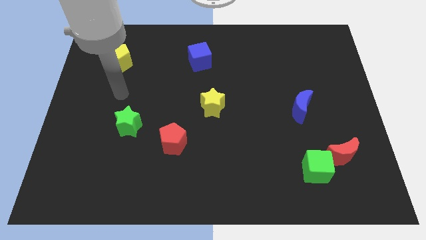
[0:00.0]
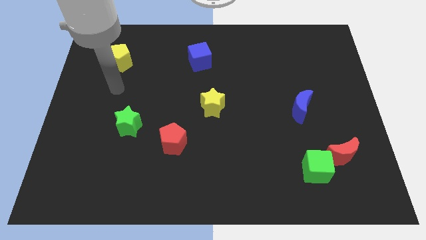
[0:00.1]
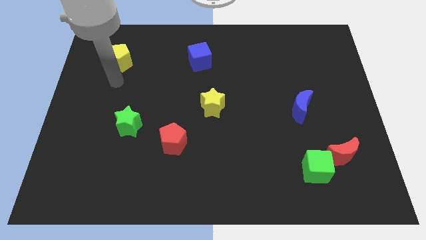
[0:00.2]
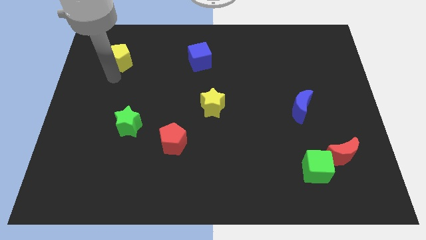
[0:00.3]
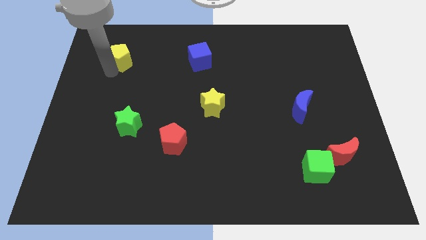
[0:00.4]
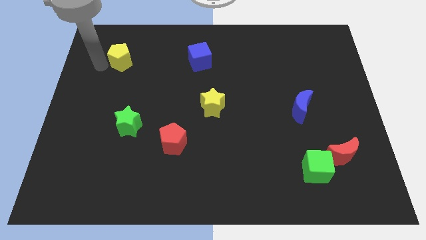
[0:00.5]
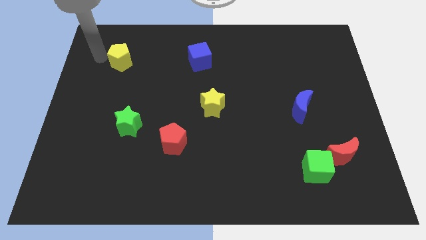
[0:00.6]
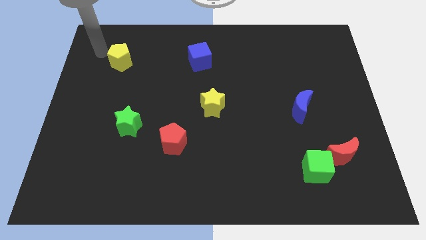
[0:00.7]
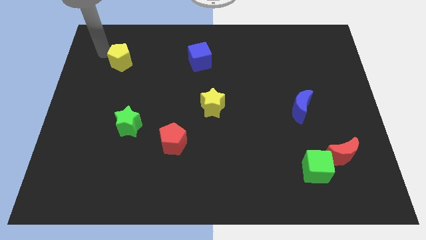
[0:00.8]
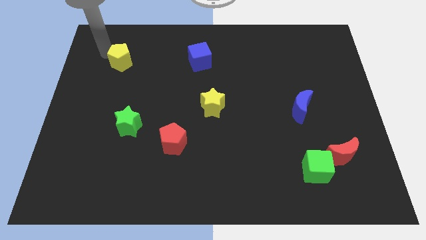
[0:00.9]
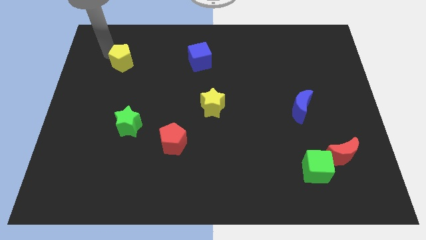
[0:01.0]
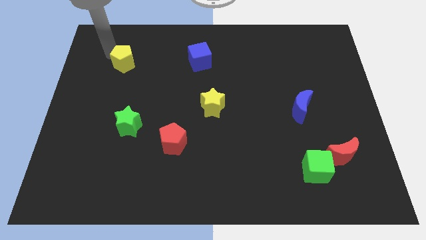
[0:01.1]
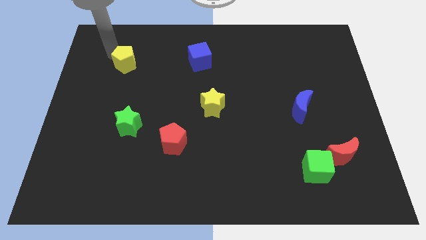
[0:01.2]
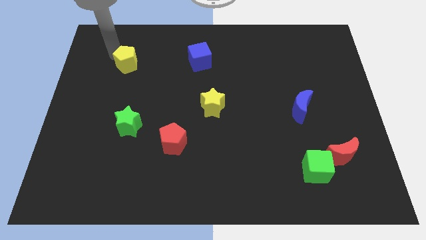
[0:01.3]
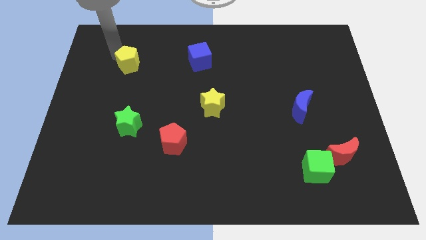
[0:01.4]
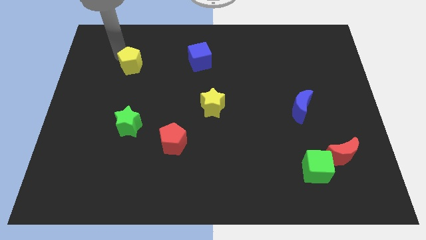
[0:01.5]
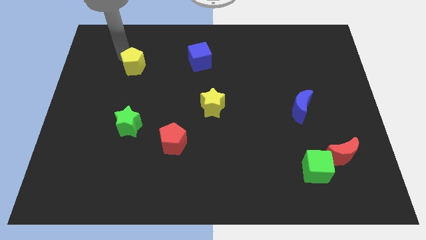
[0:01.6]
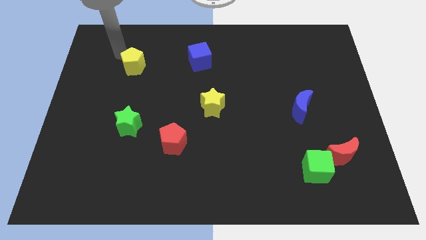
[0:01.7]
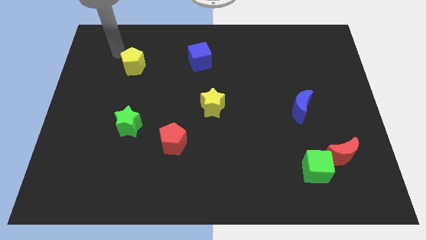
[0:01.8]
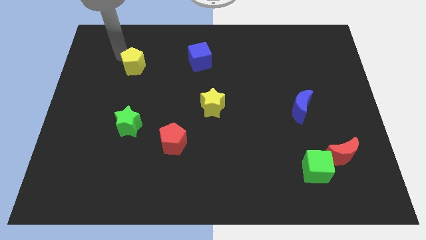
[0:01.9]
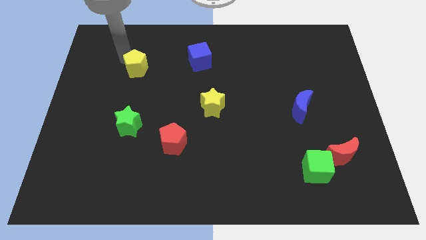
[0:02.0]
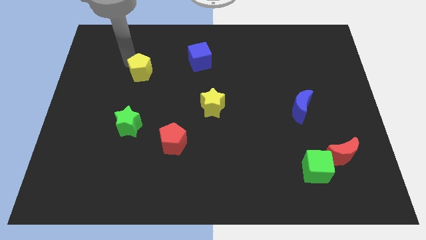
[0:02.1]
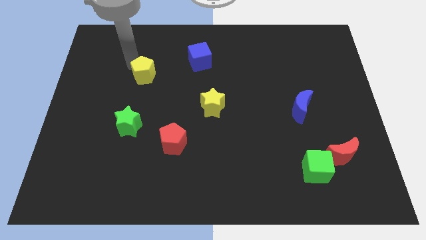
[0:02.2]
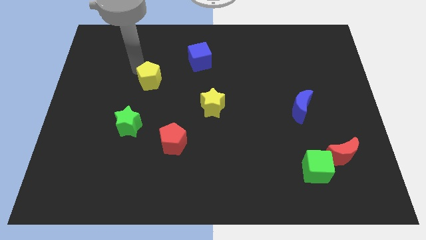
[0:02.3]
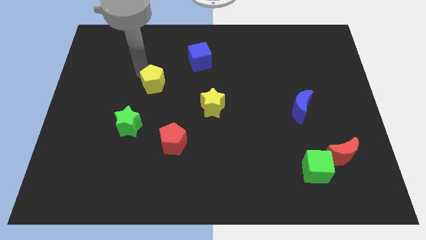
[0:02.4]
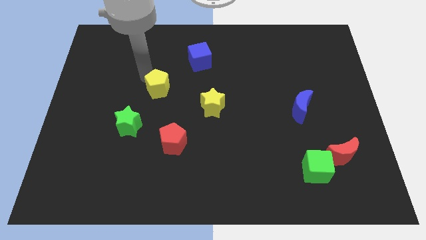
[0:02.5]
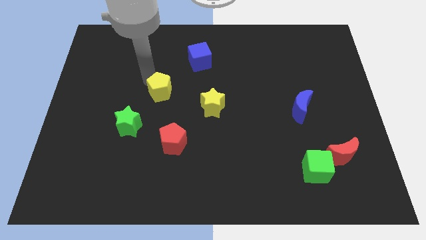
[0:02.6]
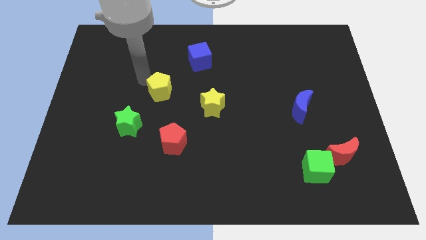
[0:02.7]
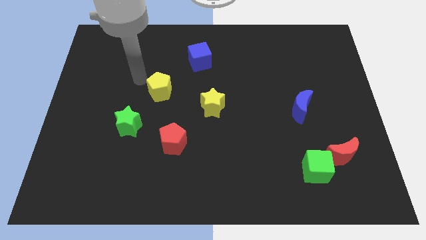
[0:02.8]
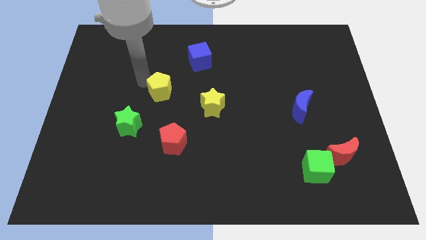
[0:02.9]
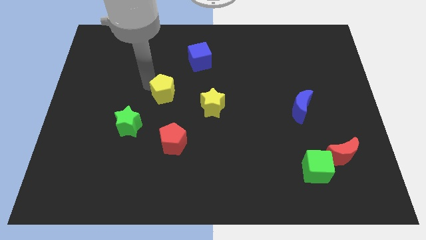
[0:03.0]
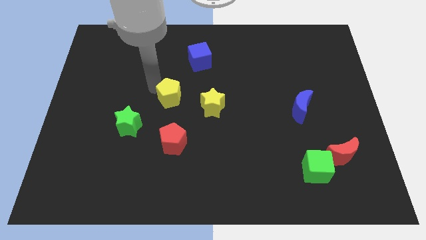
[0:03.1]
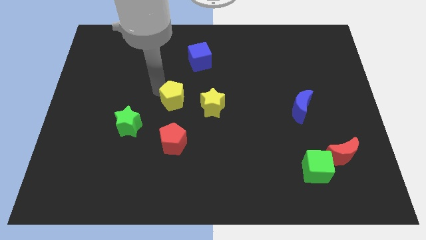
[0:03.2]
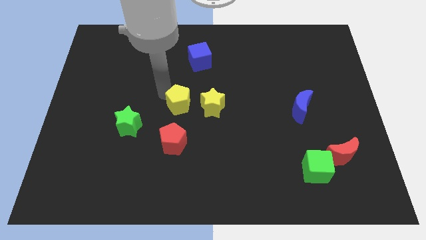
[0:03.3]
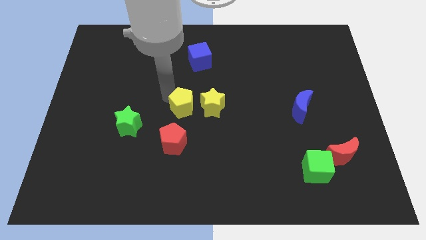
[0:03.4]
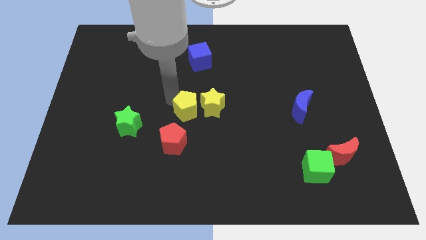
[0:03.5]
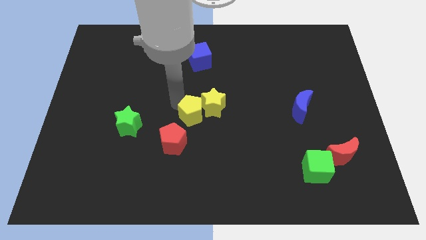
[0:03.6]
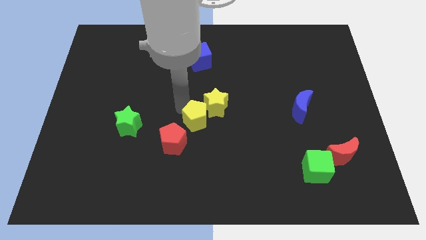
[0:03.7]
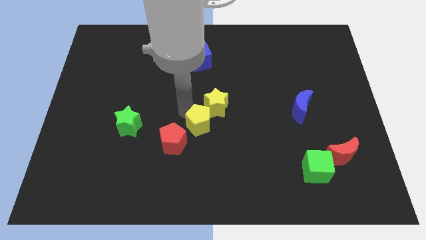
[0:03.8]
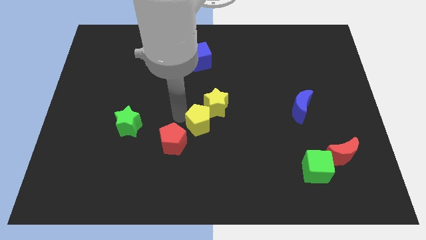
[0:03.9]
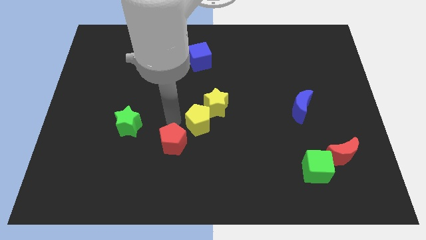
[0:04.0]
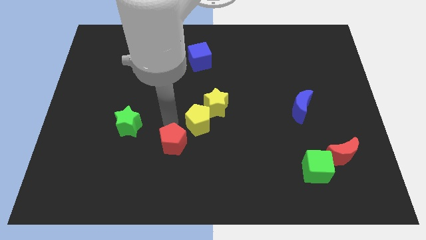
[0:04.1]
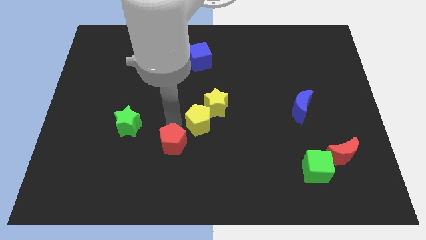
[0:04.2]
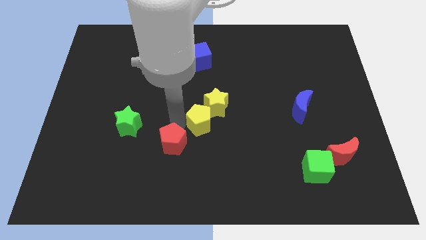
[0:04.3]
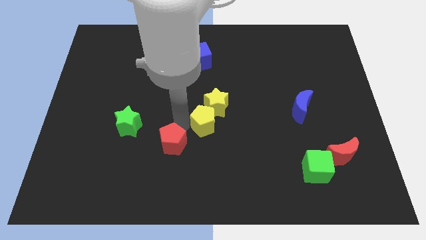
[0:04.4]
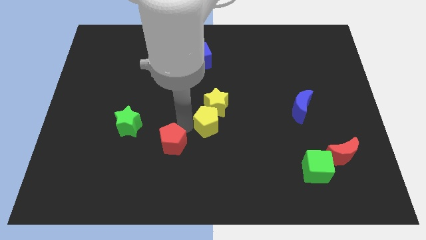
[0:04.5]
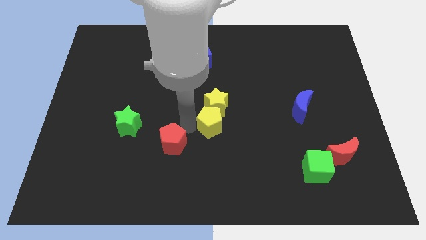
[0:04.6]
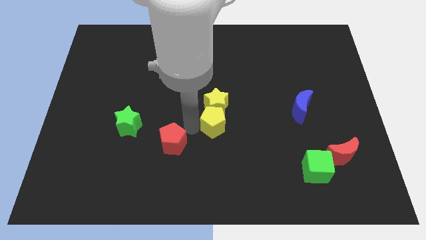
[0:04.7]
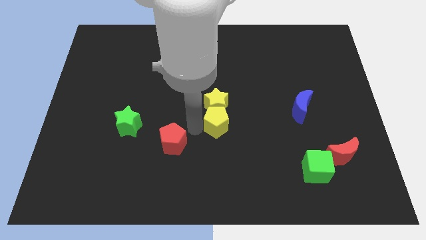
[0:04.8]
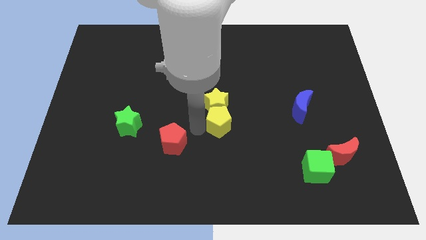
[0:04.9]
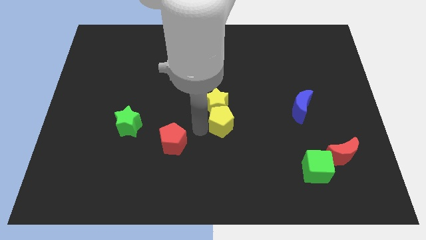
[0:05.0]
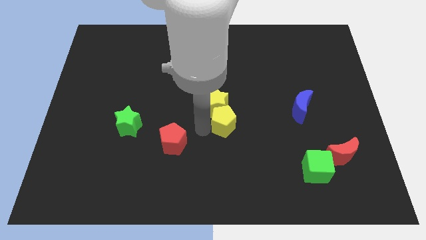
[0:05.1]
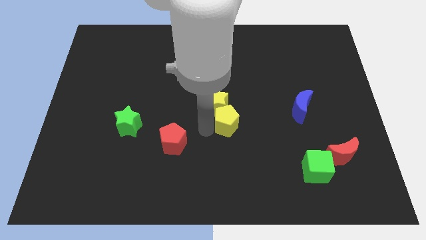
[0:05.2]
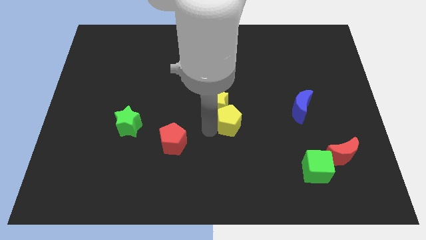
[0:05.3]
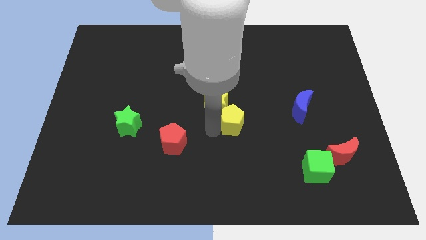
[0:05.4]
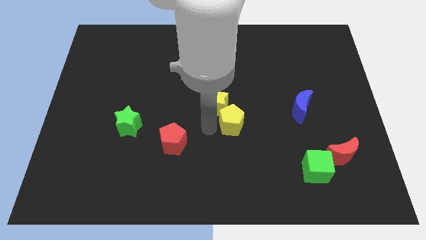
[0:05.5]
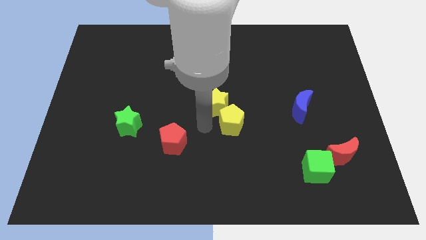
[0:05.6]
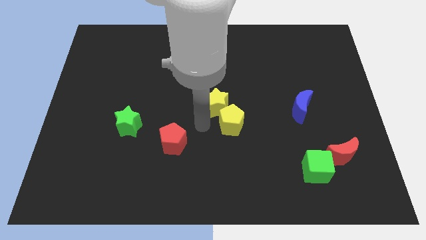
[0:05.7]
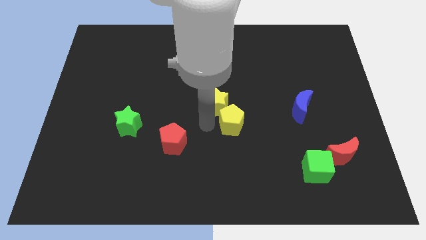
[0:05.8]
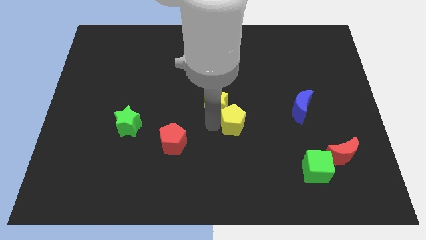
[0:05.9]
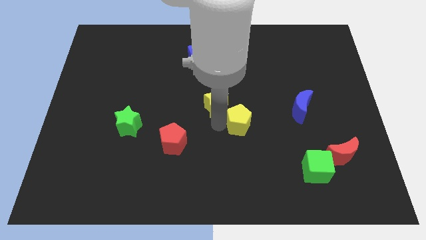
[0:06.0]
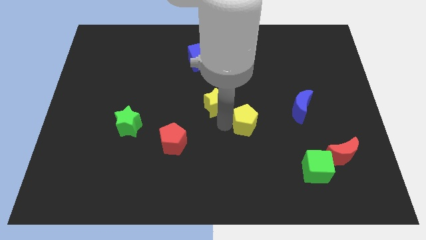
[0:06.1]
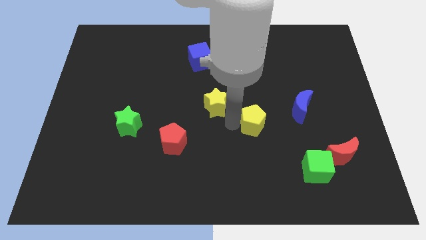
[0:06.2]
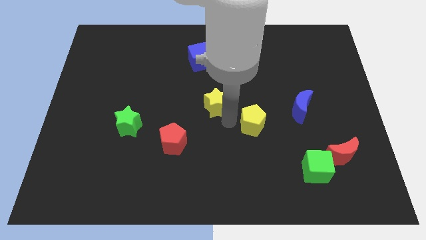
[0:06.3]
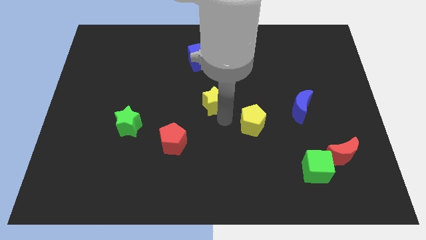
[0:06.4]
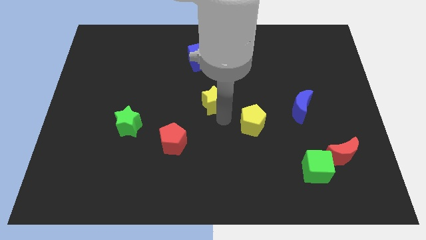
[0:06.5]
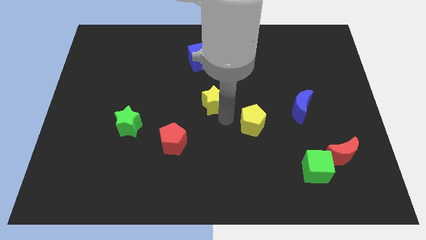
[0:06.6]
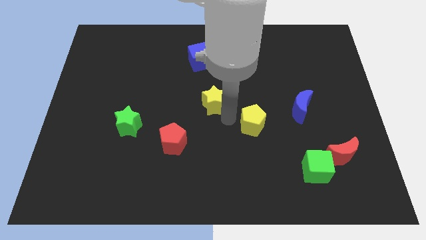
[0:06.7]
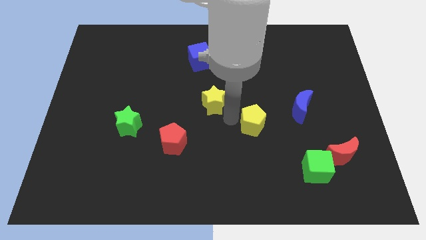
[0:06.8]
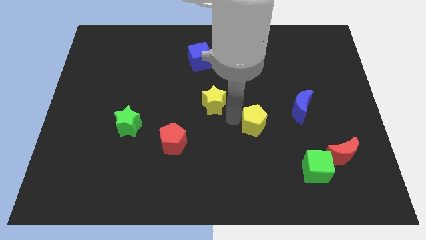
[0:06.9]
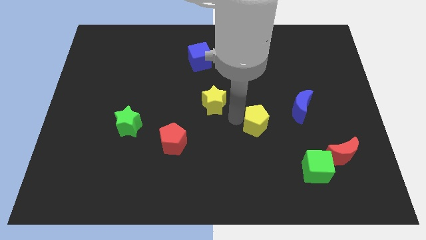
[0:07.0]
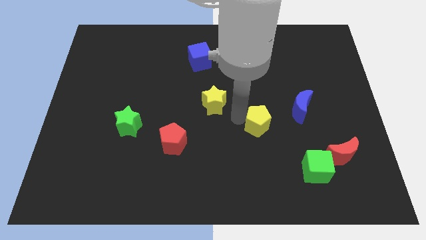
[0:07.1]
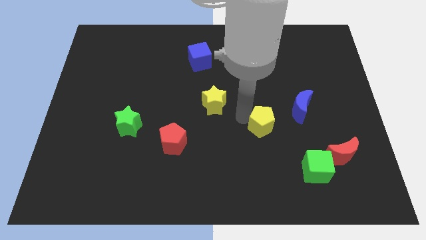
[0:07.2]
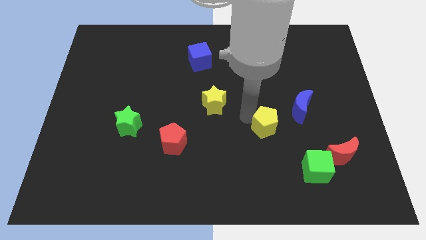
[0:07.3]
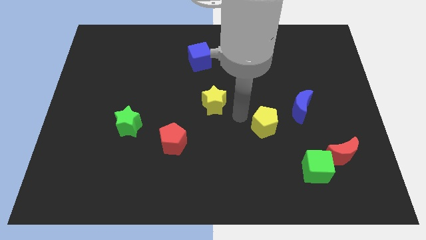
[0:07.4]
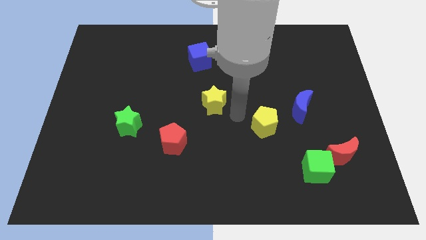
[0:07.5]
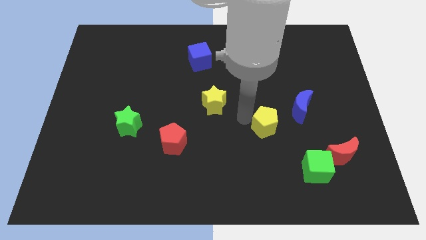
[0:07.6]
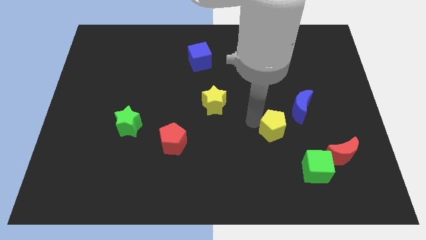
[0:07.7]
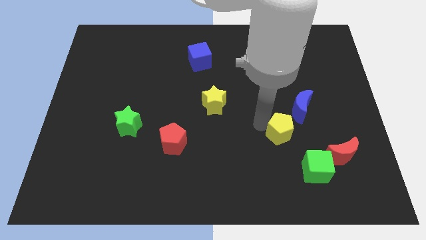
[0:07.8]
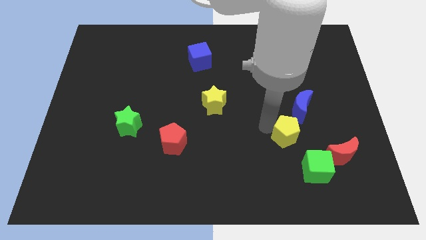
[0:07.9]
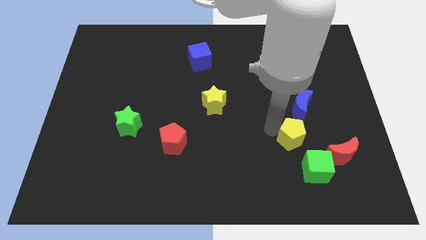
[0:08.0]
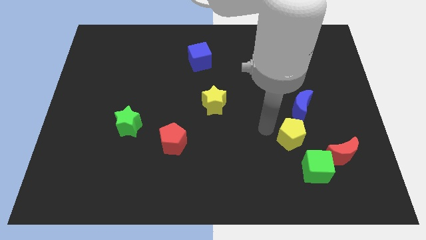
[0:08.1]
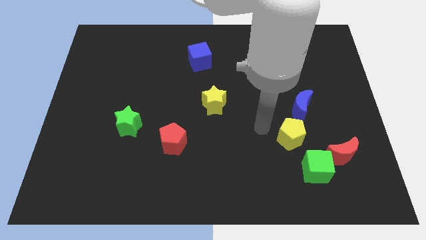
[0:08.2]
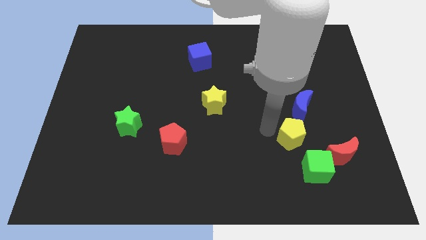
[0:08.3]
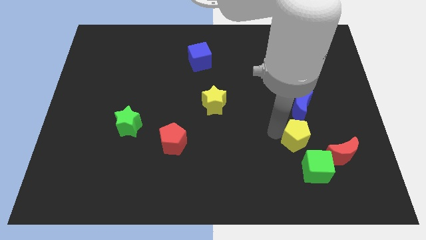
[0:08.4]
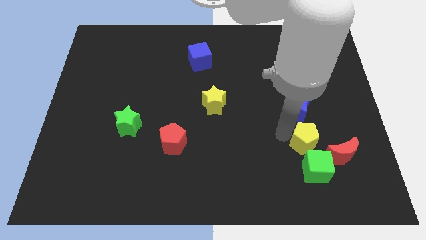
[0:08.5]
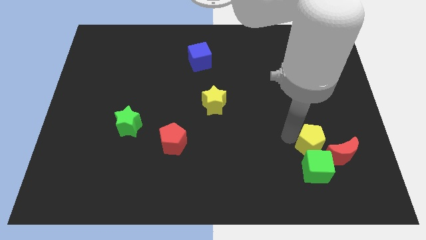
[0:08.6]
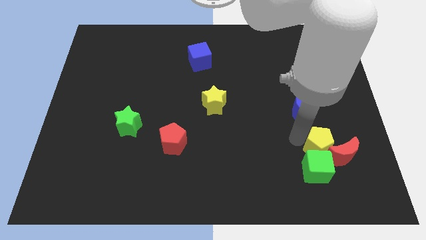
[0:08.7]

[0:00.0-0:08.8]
move the yellow pentagon towards the red moon
